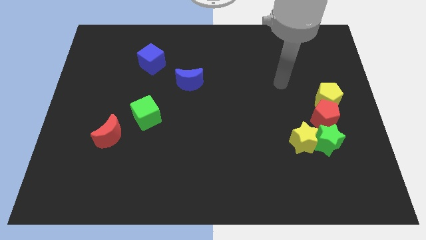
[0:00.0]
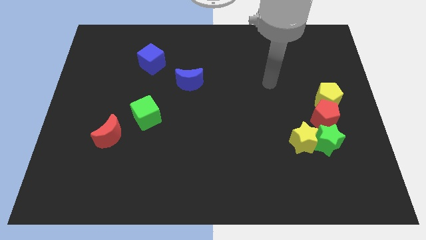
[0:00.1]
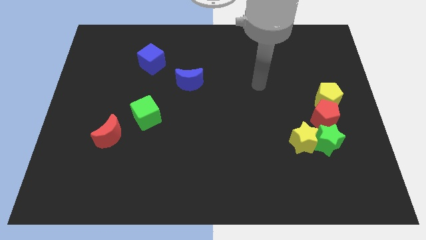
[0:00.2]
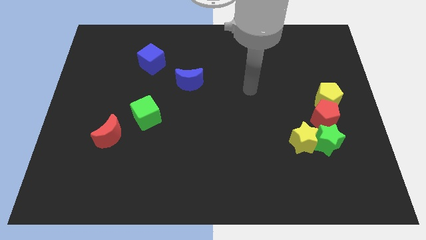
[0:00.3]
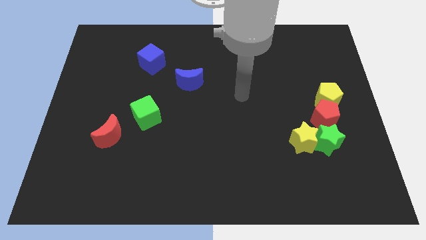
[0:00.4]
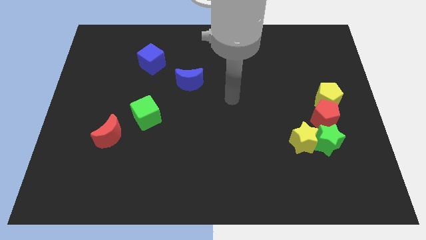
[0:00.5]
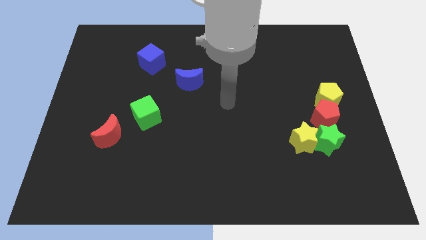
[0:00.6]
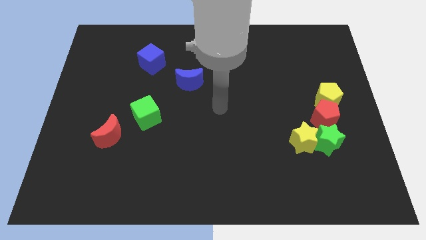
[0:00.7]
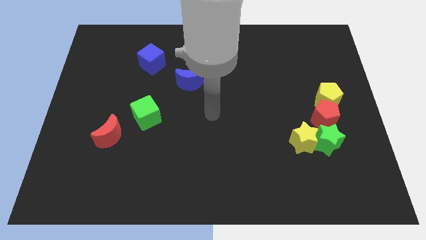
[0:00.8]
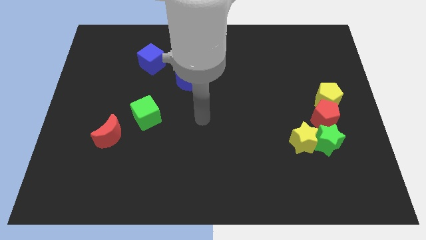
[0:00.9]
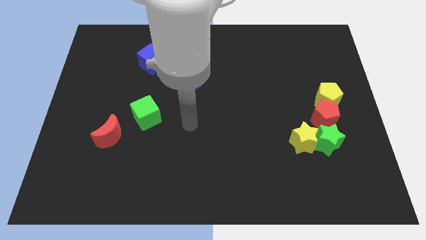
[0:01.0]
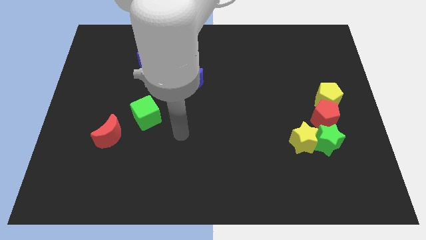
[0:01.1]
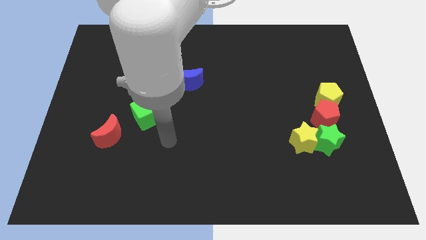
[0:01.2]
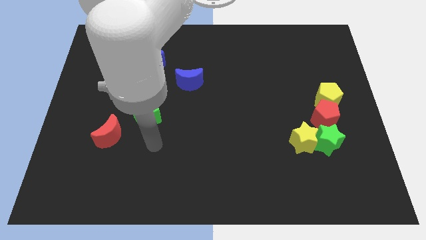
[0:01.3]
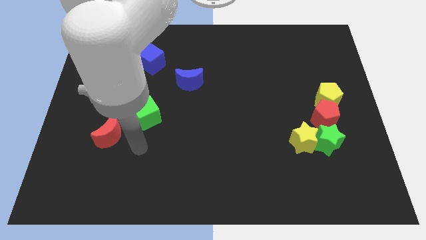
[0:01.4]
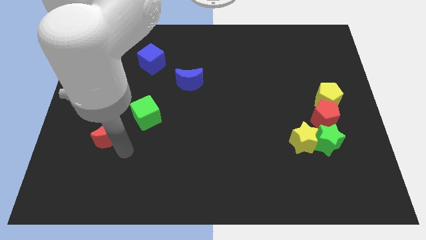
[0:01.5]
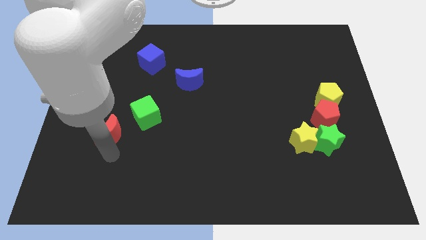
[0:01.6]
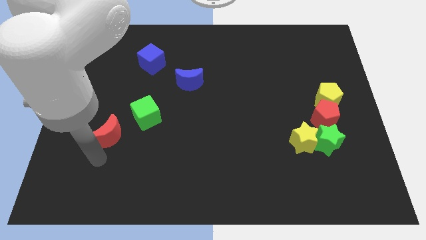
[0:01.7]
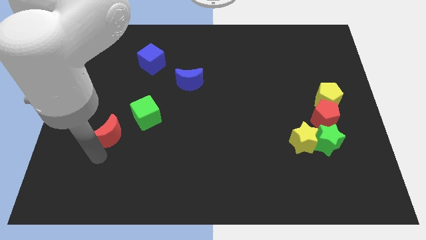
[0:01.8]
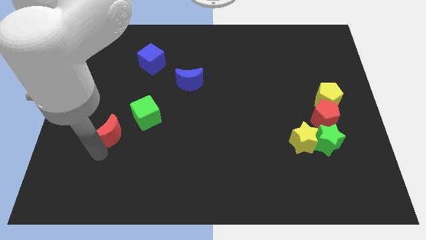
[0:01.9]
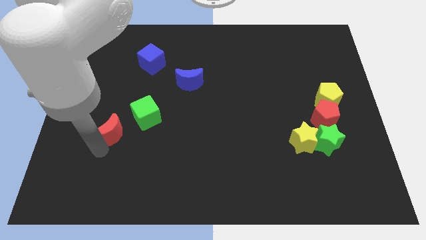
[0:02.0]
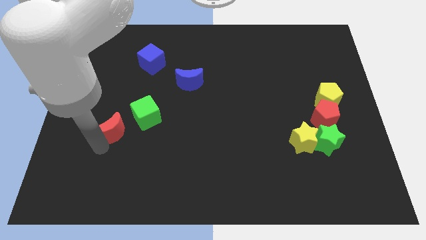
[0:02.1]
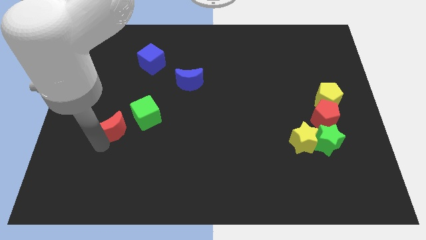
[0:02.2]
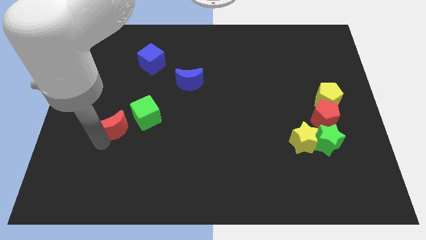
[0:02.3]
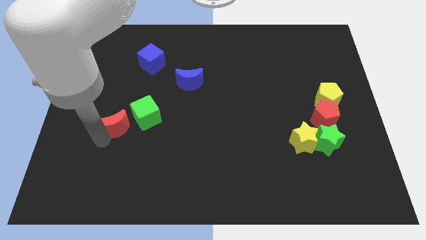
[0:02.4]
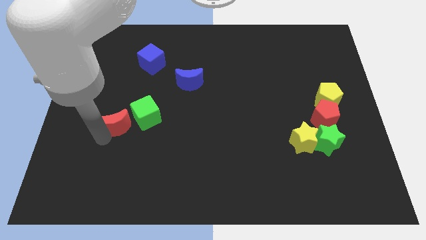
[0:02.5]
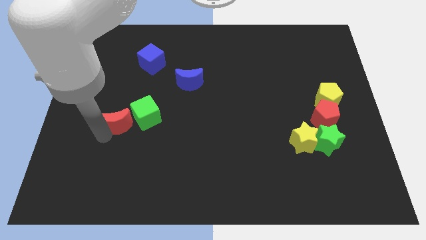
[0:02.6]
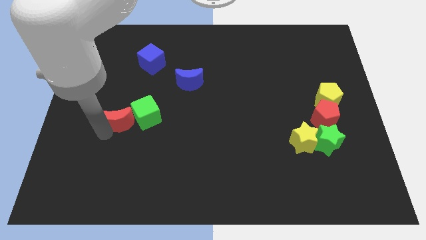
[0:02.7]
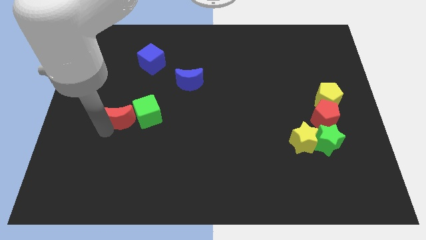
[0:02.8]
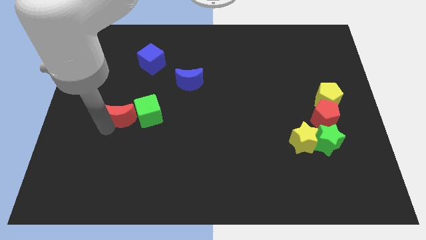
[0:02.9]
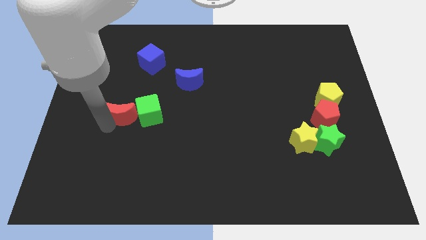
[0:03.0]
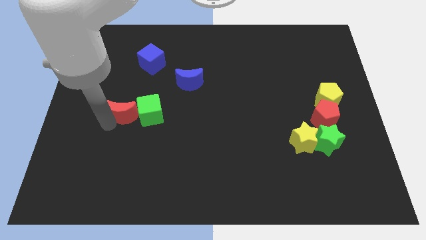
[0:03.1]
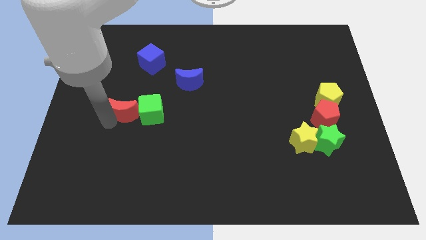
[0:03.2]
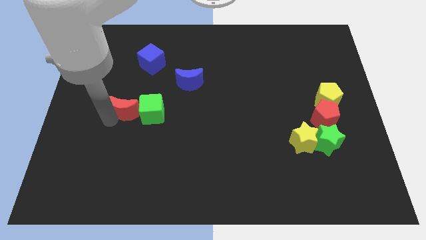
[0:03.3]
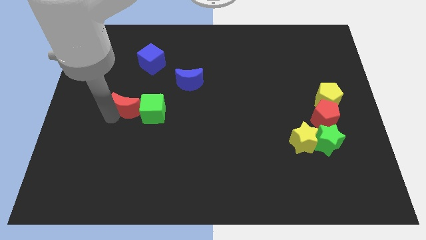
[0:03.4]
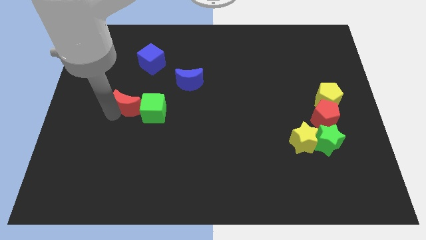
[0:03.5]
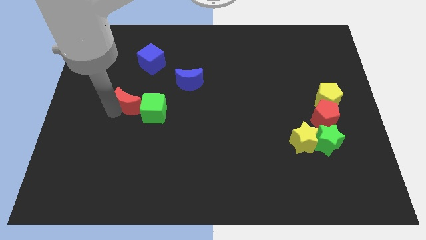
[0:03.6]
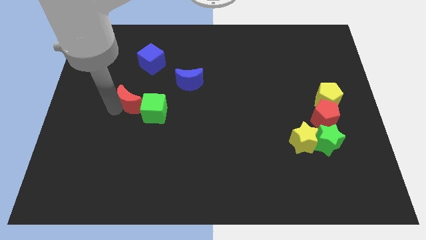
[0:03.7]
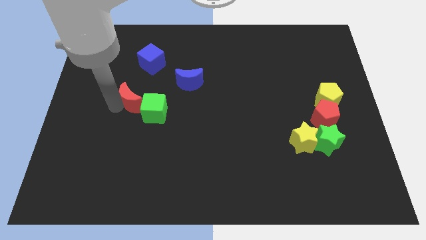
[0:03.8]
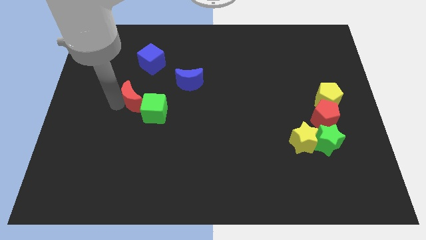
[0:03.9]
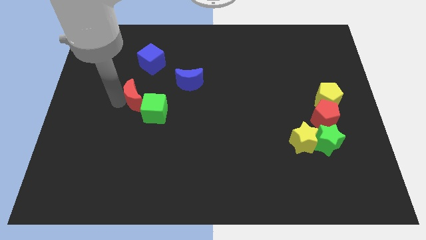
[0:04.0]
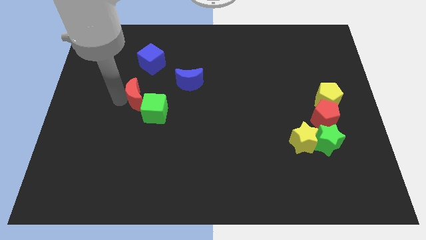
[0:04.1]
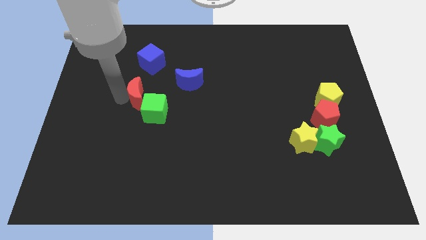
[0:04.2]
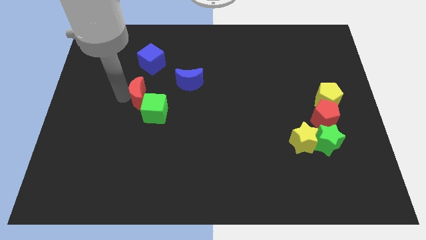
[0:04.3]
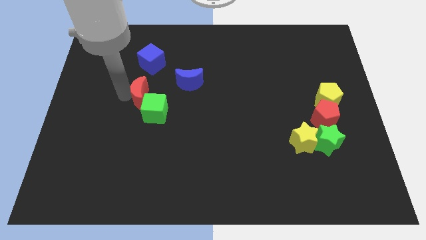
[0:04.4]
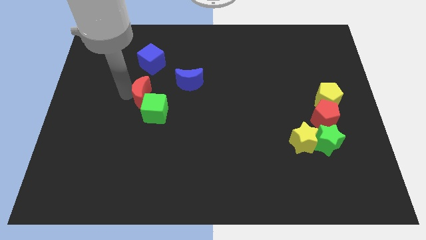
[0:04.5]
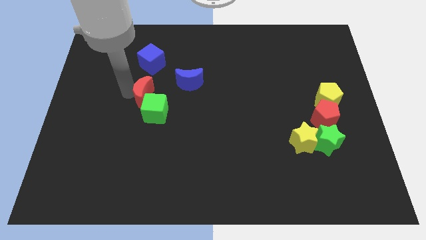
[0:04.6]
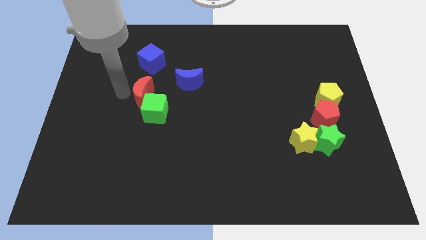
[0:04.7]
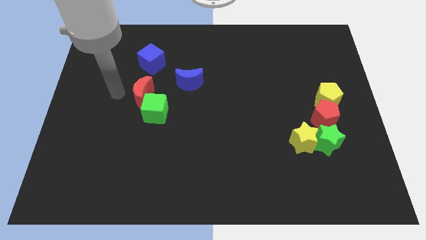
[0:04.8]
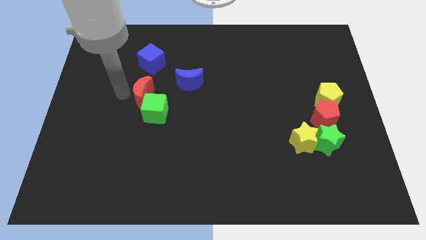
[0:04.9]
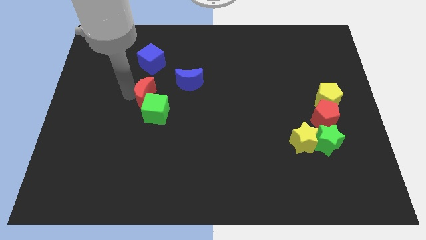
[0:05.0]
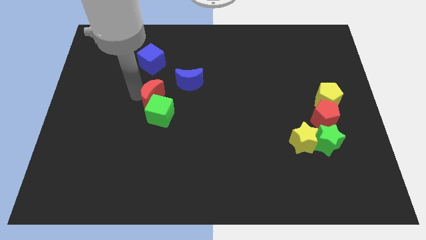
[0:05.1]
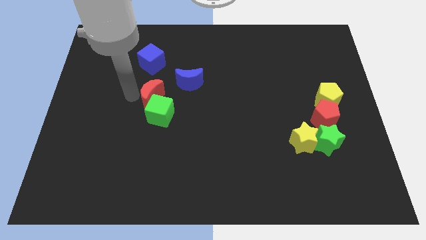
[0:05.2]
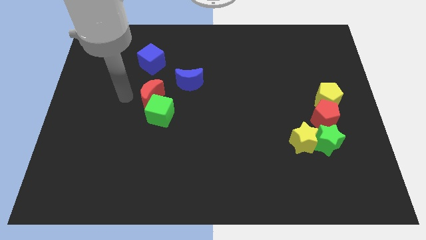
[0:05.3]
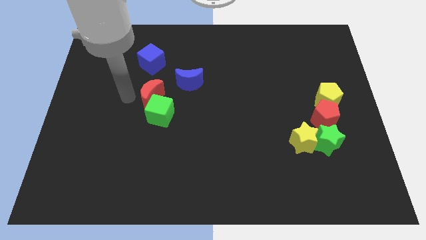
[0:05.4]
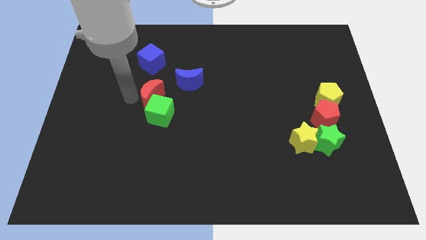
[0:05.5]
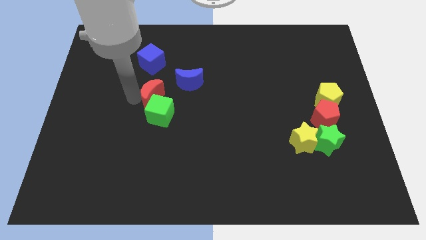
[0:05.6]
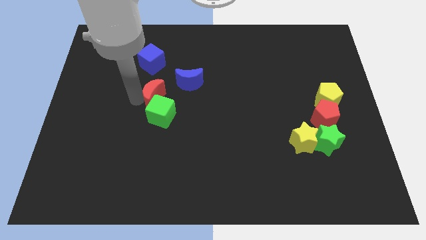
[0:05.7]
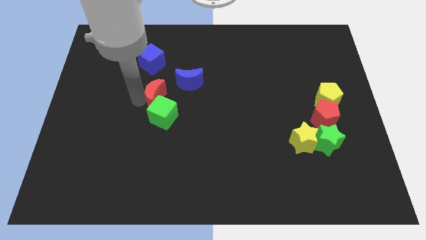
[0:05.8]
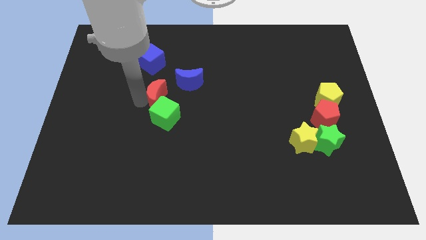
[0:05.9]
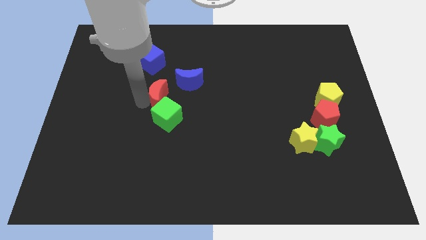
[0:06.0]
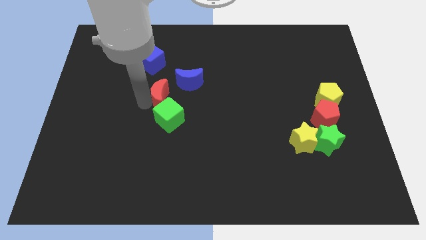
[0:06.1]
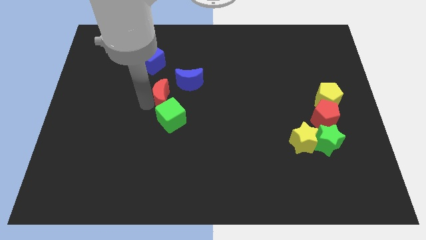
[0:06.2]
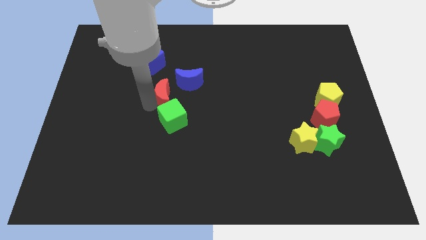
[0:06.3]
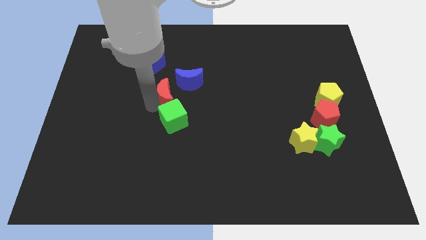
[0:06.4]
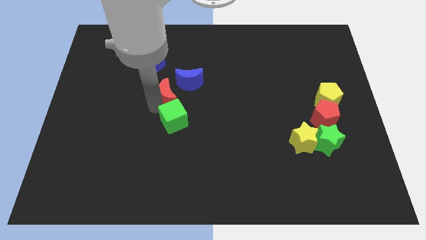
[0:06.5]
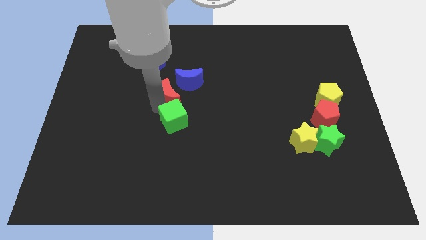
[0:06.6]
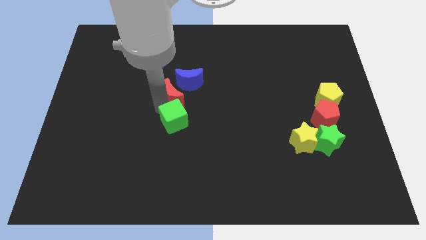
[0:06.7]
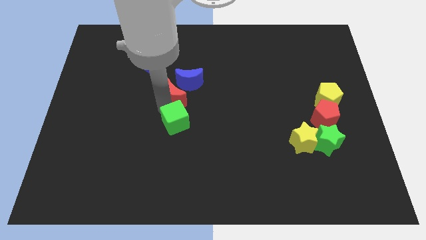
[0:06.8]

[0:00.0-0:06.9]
move the red moon next to the blue moon
